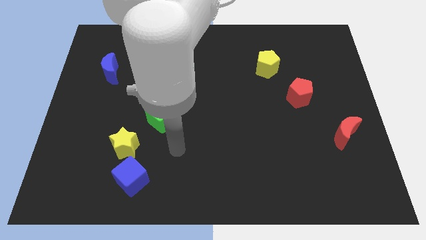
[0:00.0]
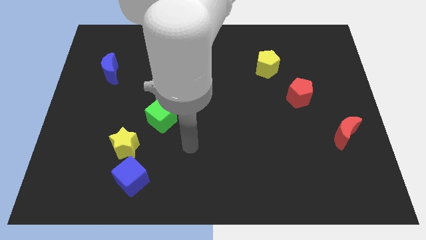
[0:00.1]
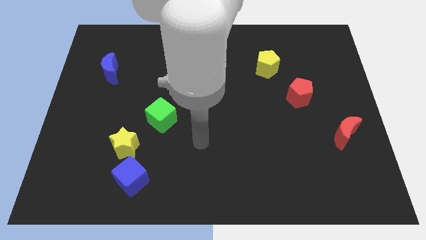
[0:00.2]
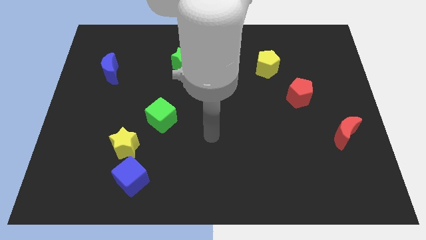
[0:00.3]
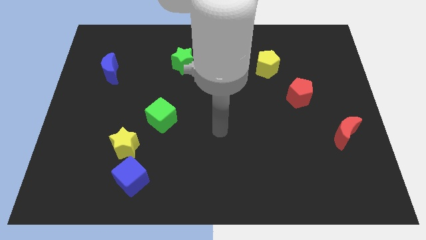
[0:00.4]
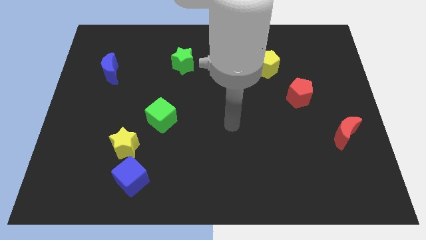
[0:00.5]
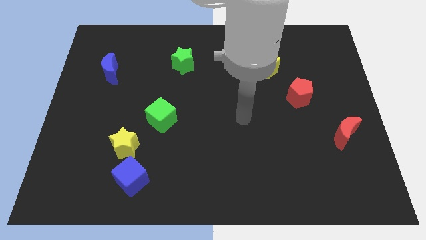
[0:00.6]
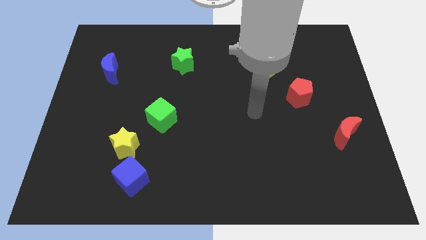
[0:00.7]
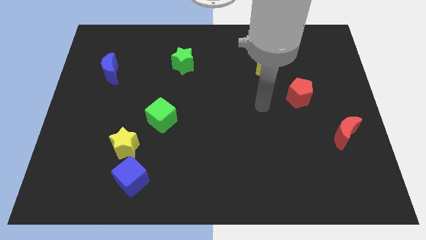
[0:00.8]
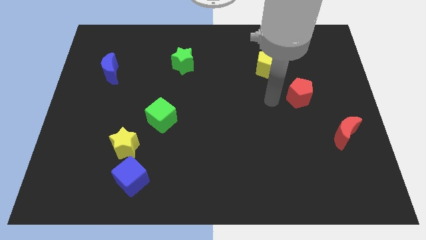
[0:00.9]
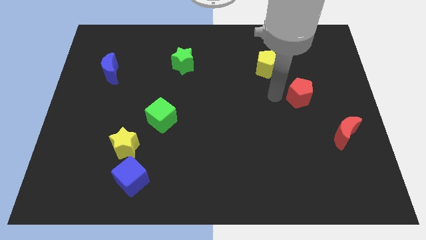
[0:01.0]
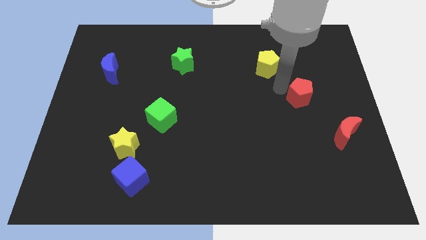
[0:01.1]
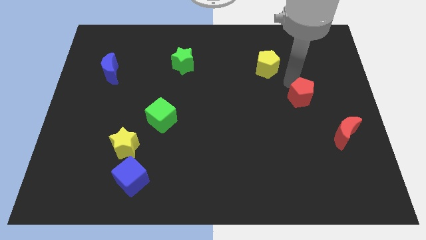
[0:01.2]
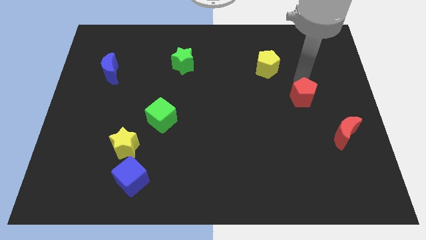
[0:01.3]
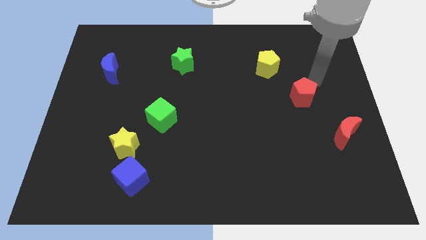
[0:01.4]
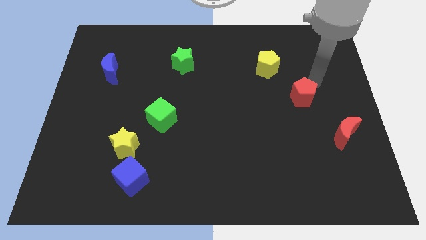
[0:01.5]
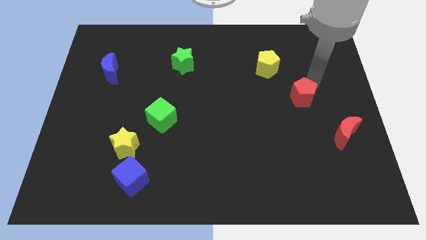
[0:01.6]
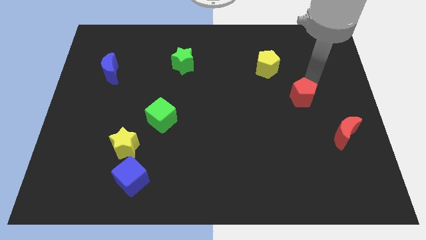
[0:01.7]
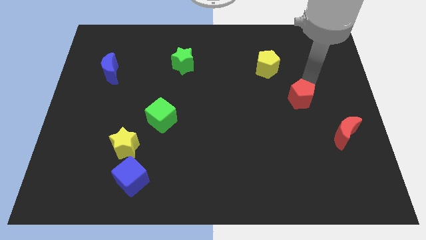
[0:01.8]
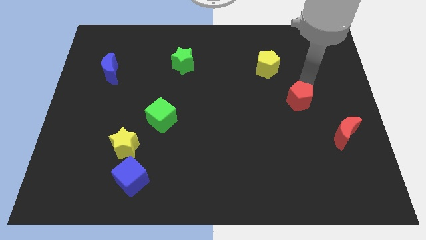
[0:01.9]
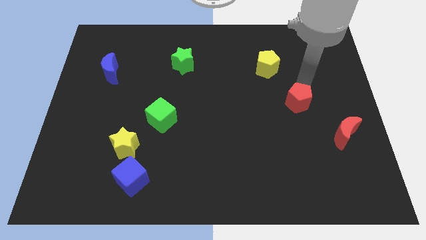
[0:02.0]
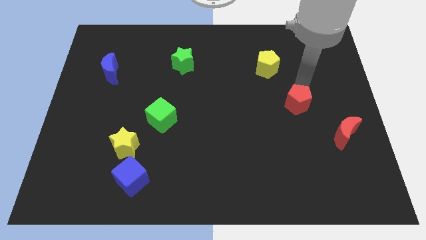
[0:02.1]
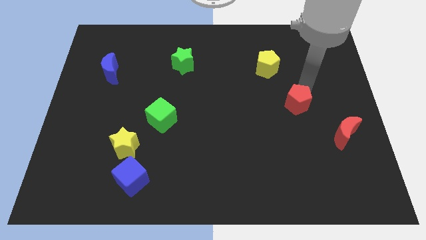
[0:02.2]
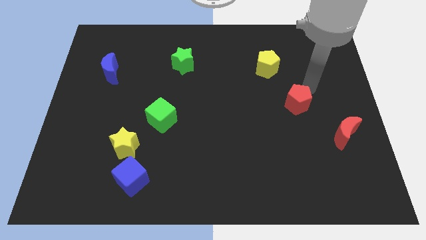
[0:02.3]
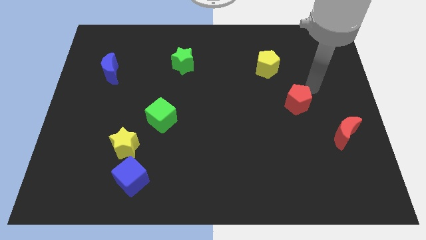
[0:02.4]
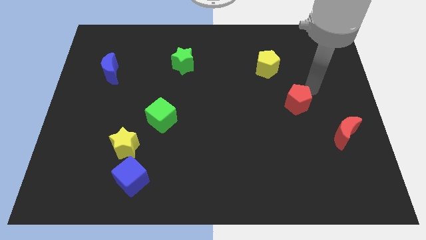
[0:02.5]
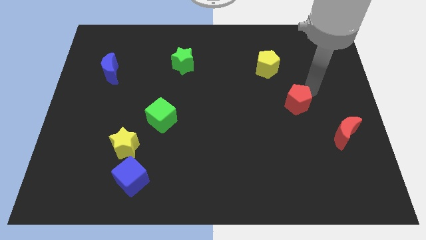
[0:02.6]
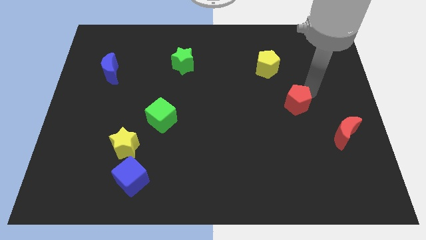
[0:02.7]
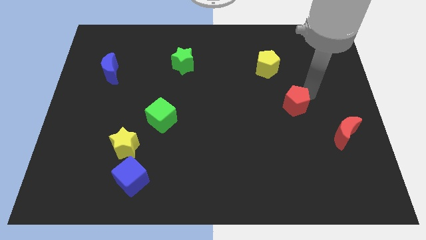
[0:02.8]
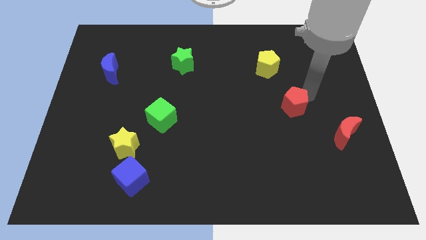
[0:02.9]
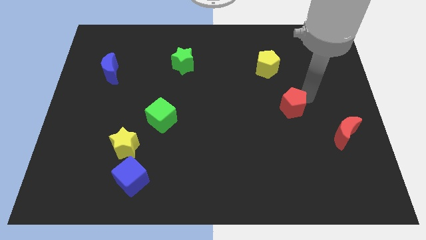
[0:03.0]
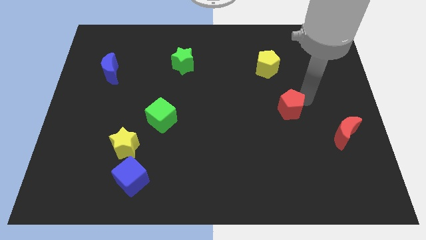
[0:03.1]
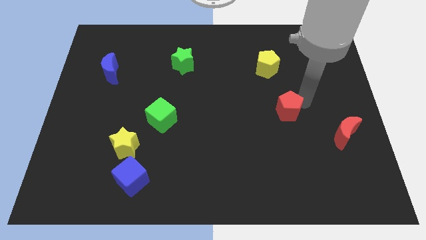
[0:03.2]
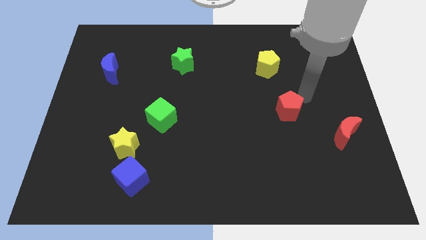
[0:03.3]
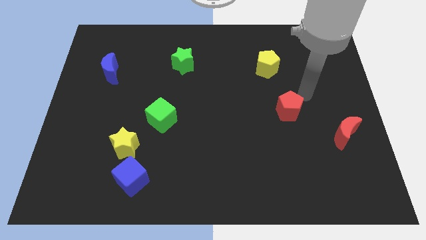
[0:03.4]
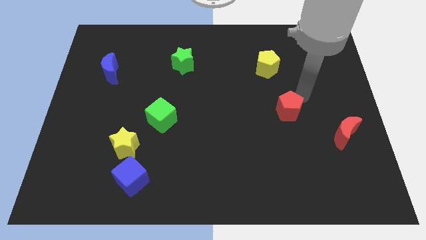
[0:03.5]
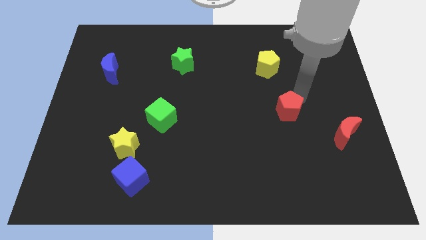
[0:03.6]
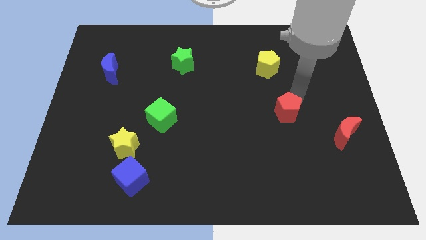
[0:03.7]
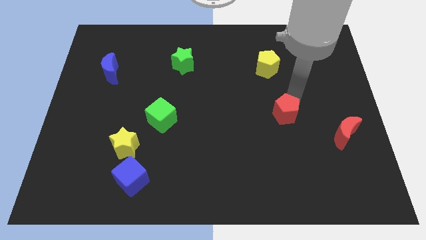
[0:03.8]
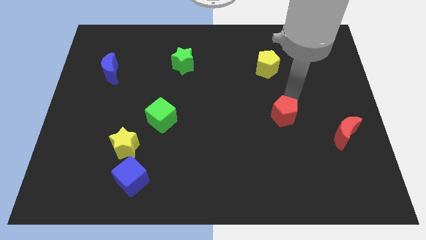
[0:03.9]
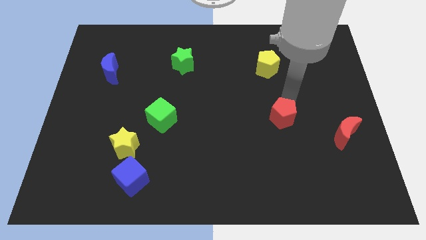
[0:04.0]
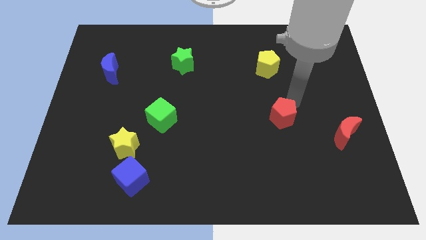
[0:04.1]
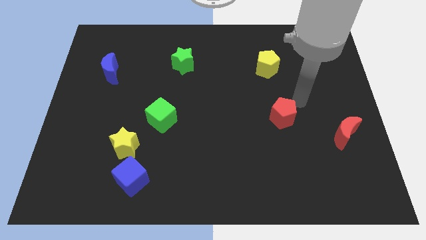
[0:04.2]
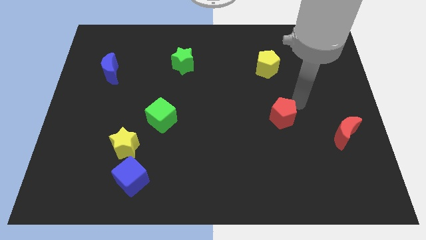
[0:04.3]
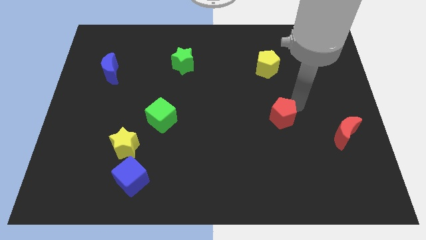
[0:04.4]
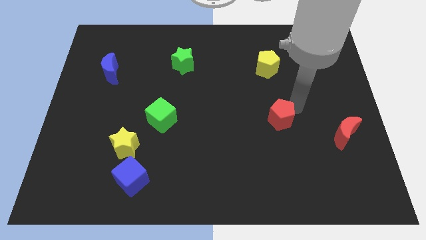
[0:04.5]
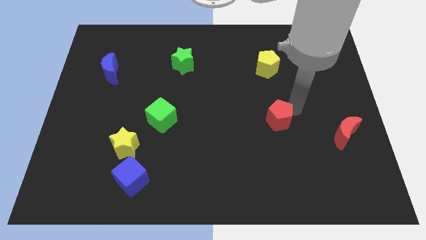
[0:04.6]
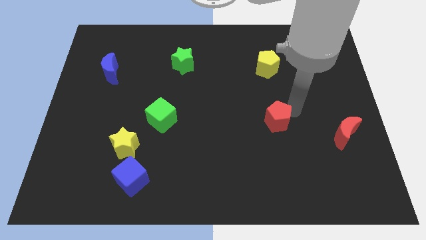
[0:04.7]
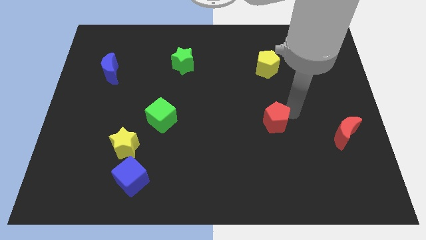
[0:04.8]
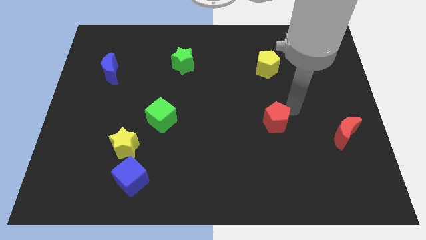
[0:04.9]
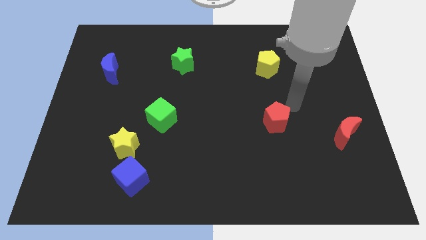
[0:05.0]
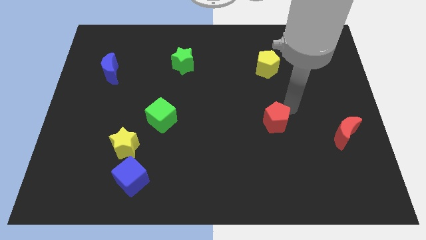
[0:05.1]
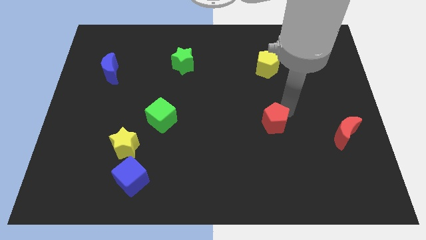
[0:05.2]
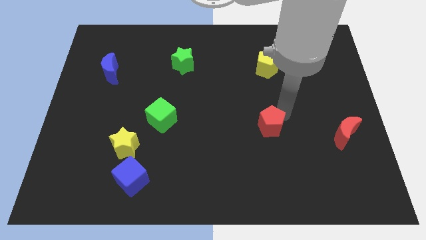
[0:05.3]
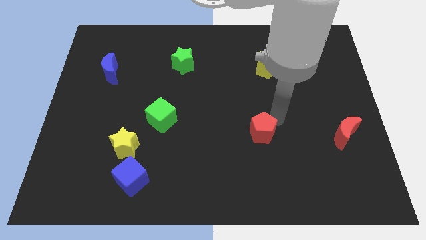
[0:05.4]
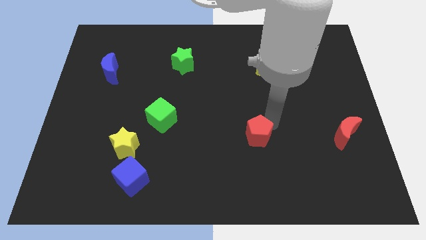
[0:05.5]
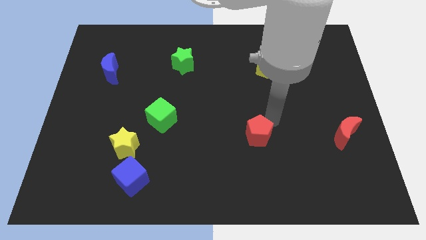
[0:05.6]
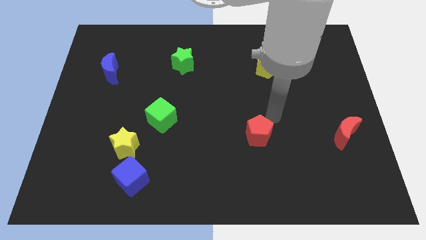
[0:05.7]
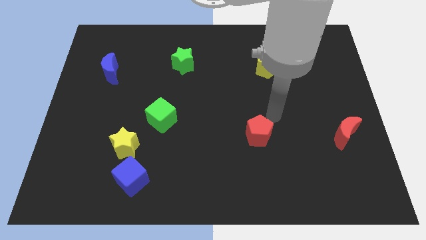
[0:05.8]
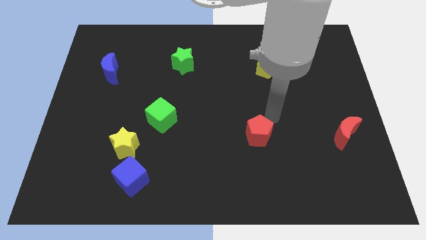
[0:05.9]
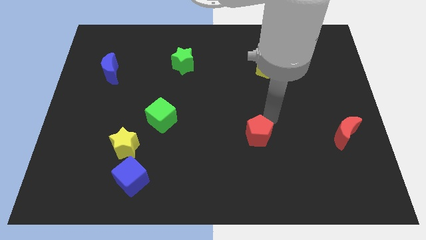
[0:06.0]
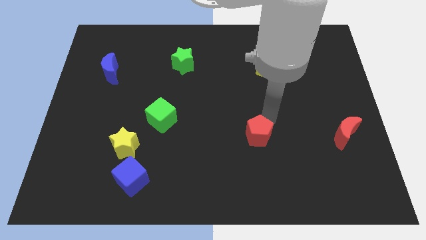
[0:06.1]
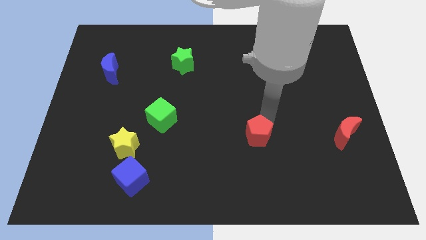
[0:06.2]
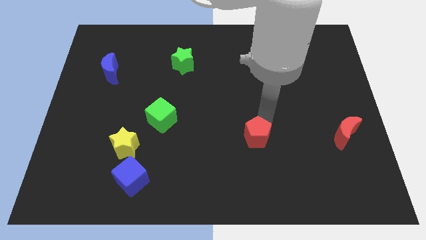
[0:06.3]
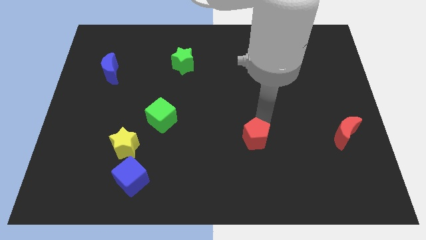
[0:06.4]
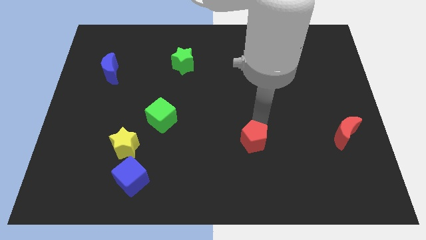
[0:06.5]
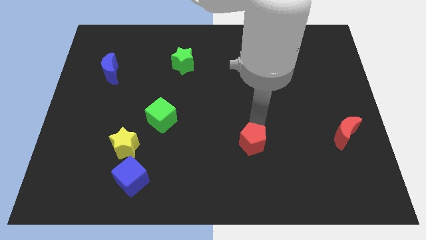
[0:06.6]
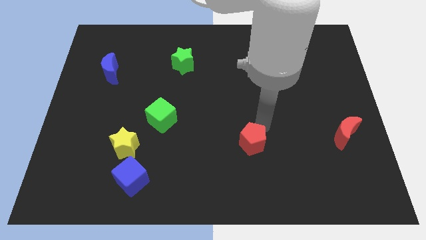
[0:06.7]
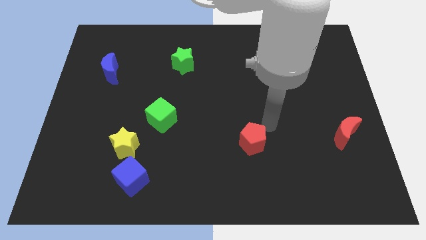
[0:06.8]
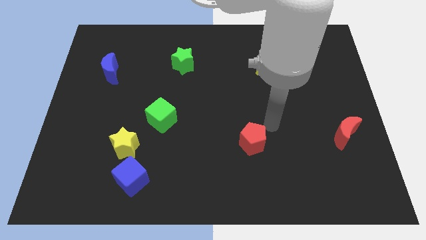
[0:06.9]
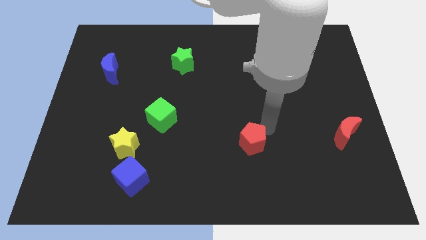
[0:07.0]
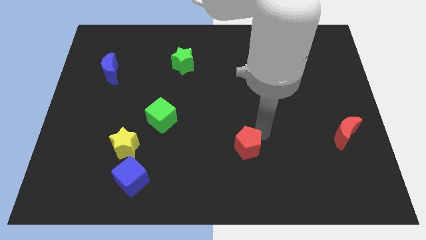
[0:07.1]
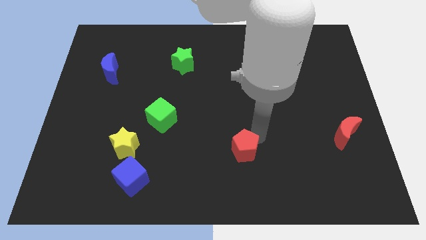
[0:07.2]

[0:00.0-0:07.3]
slide the red pentagon downwards and to the left

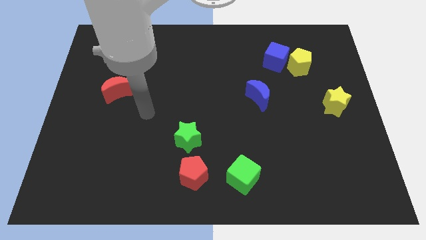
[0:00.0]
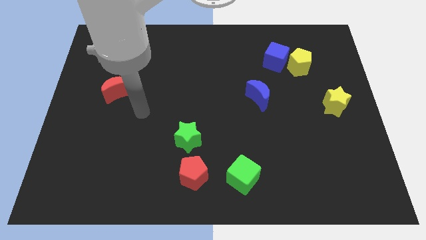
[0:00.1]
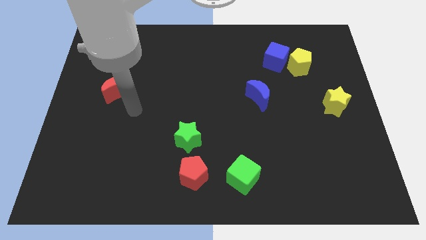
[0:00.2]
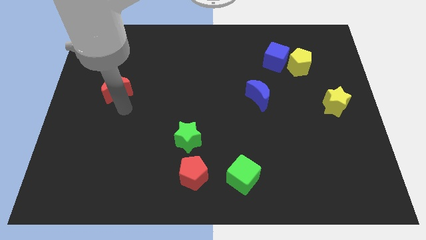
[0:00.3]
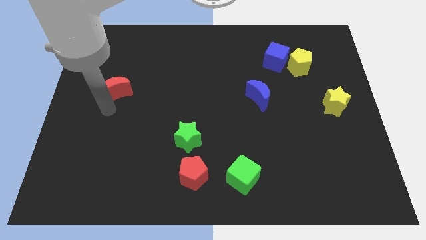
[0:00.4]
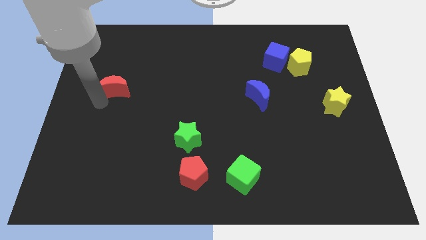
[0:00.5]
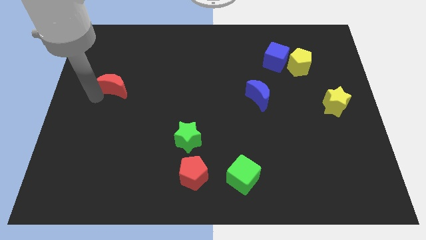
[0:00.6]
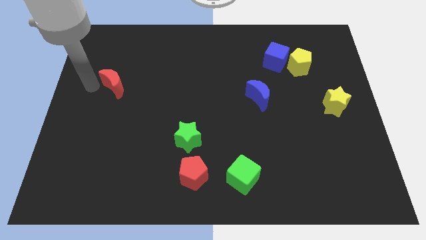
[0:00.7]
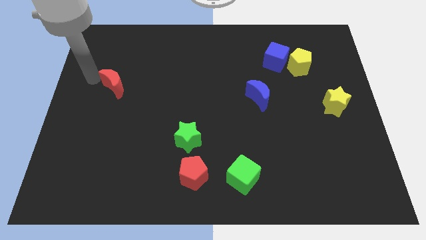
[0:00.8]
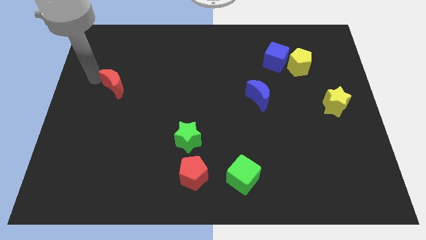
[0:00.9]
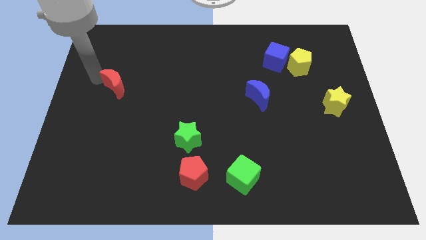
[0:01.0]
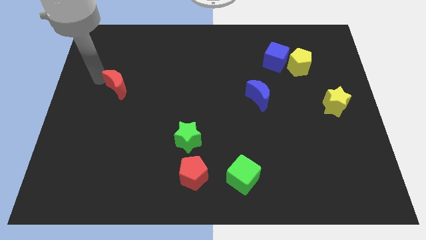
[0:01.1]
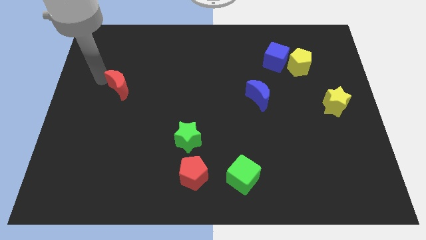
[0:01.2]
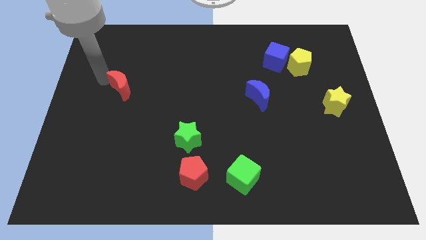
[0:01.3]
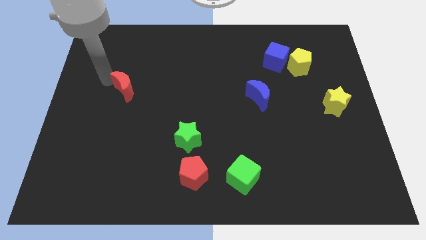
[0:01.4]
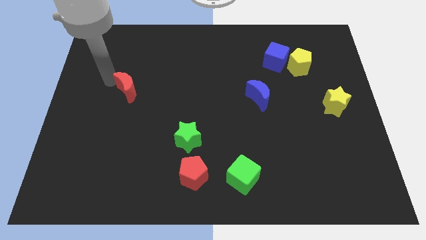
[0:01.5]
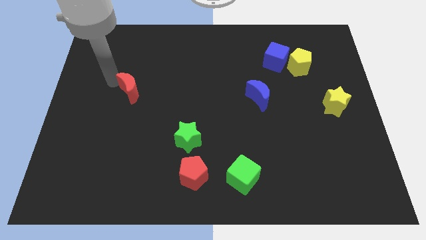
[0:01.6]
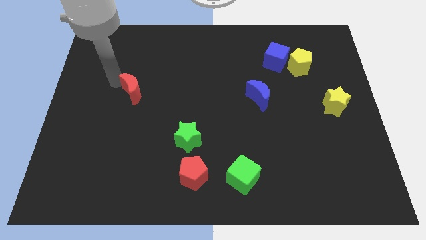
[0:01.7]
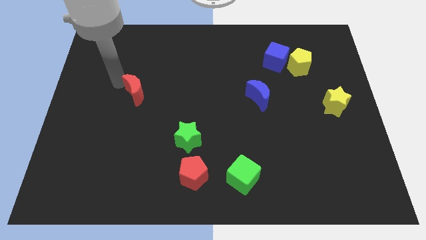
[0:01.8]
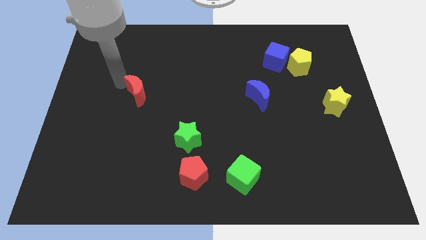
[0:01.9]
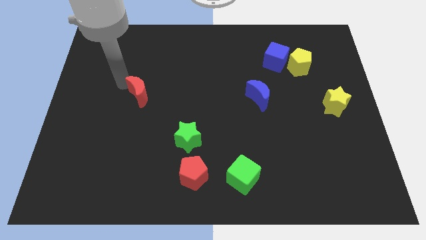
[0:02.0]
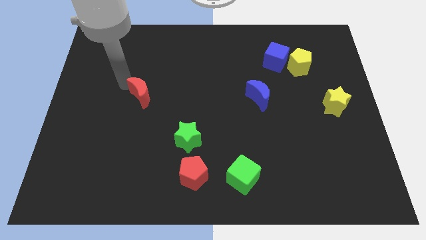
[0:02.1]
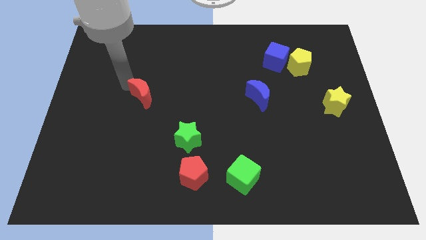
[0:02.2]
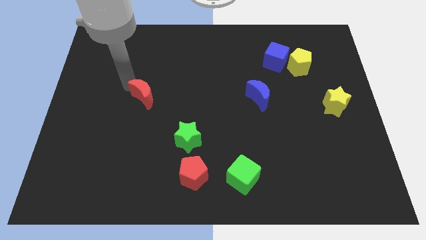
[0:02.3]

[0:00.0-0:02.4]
move the red moon to the right somewhat
